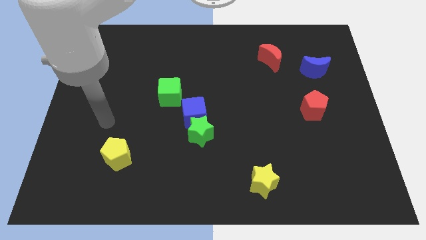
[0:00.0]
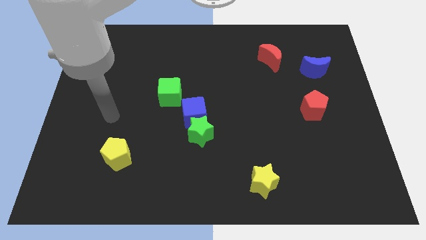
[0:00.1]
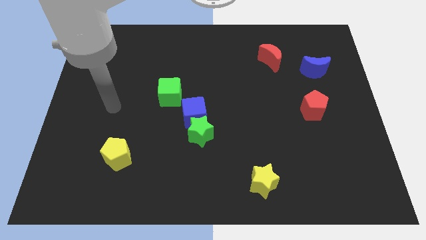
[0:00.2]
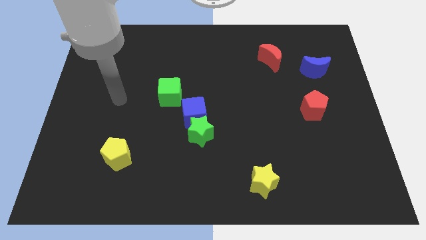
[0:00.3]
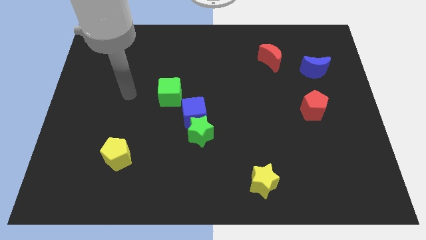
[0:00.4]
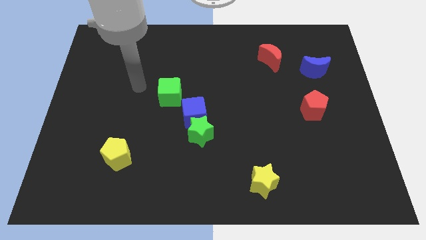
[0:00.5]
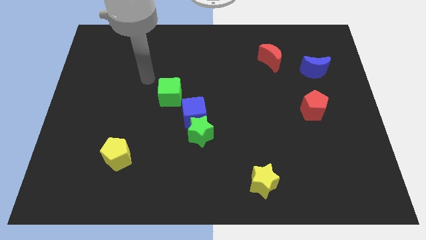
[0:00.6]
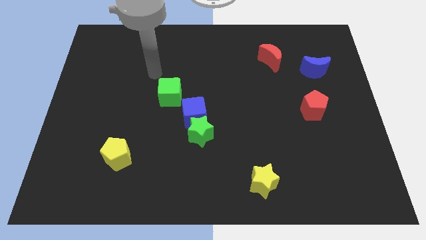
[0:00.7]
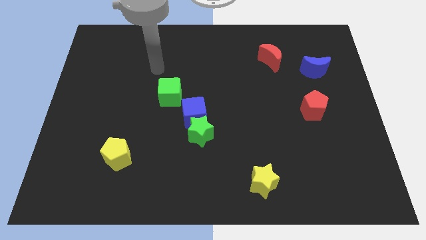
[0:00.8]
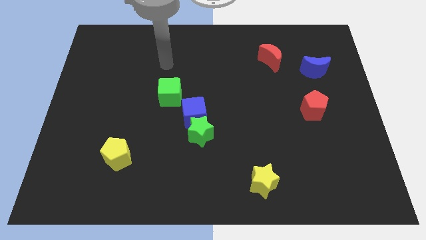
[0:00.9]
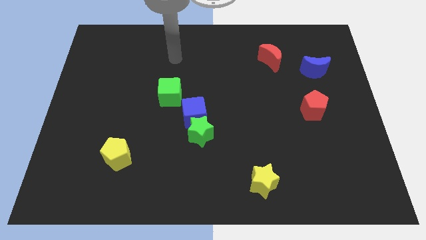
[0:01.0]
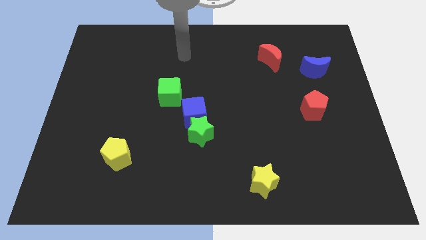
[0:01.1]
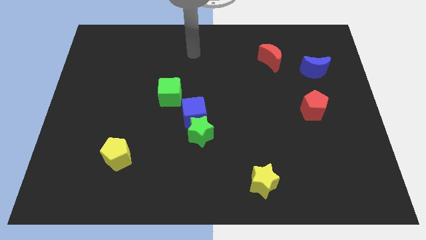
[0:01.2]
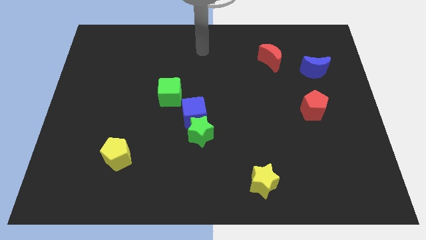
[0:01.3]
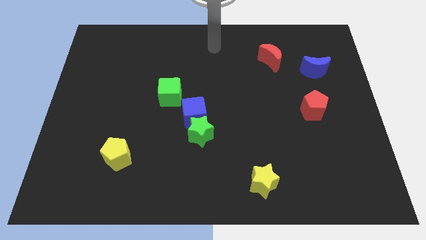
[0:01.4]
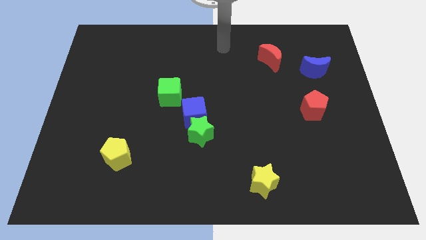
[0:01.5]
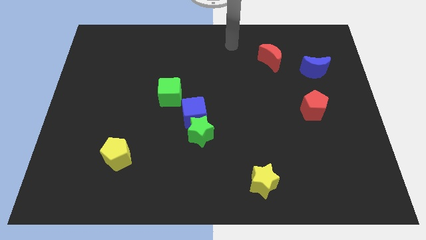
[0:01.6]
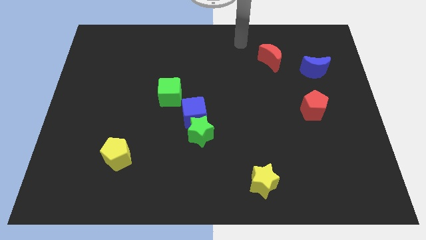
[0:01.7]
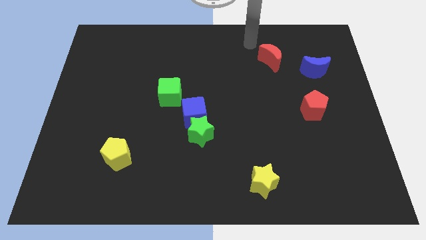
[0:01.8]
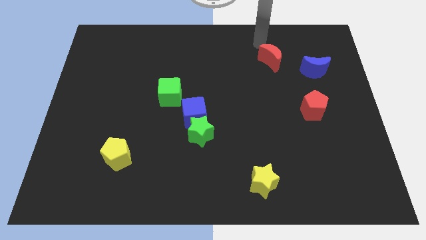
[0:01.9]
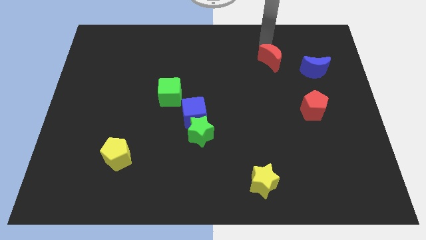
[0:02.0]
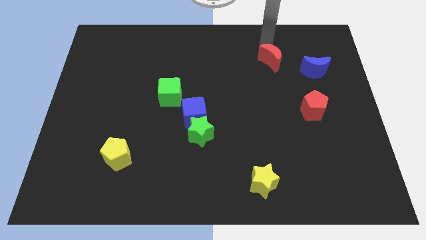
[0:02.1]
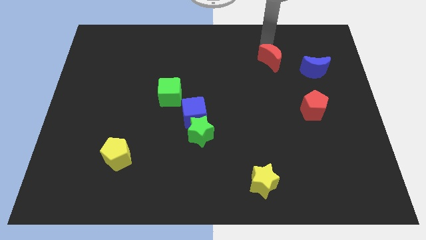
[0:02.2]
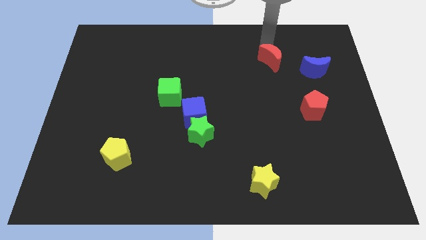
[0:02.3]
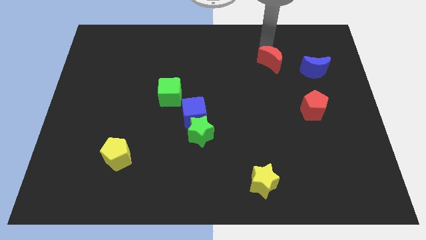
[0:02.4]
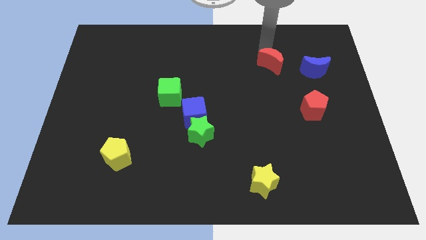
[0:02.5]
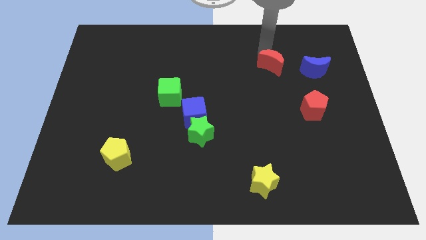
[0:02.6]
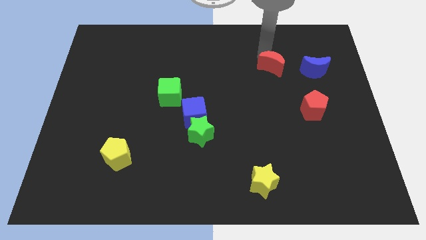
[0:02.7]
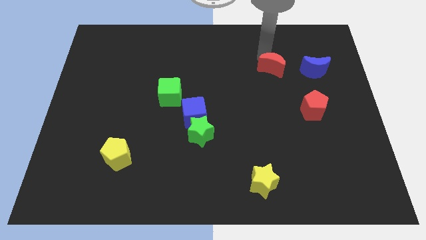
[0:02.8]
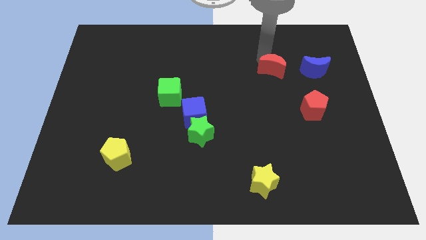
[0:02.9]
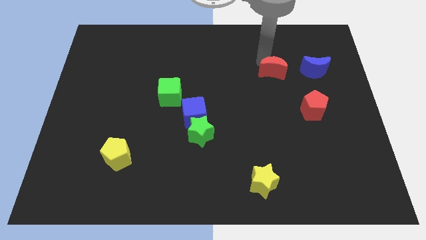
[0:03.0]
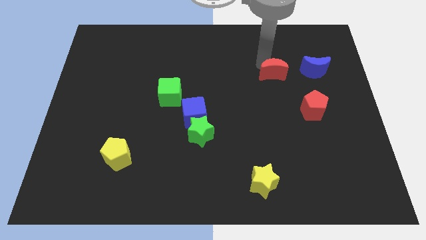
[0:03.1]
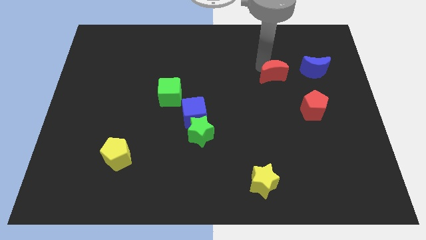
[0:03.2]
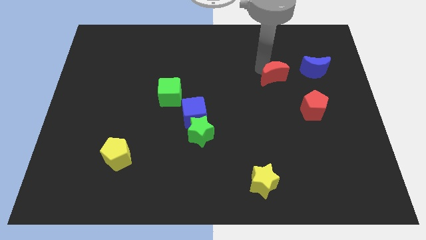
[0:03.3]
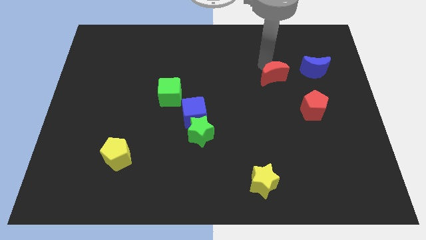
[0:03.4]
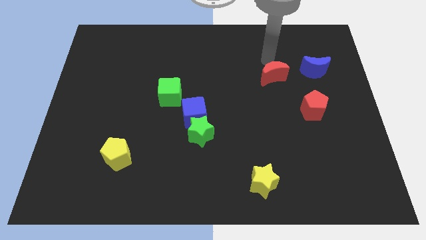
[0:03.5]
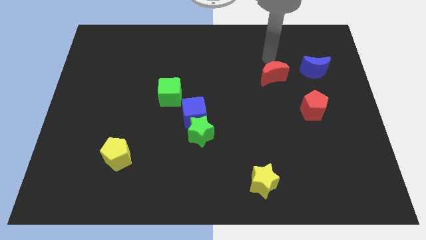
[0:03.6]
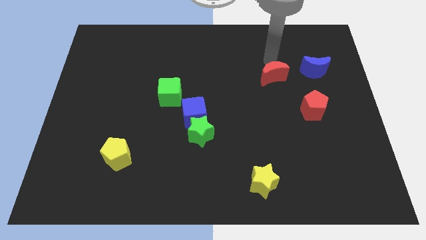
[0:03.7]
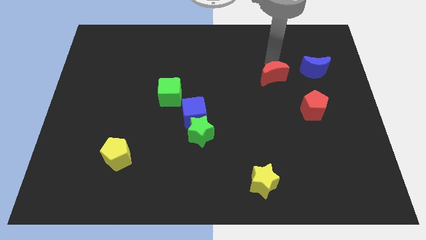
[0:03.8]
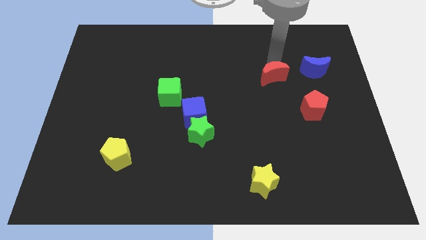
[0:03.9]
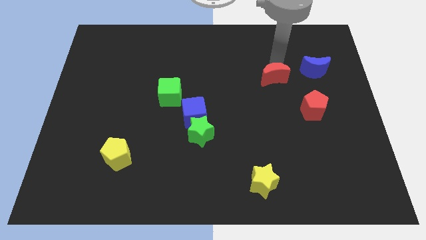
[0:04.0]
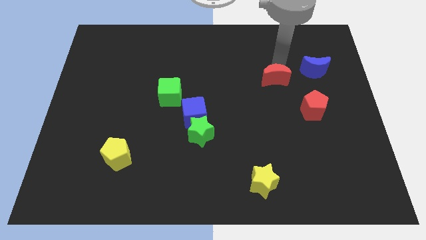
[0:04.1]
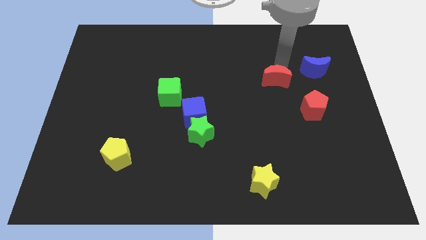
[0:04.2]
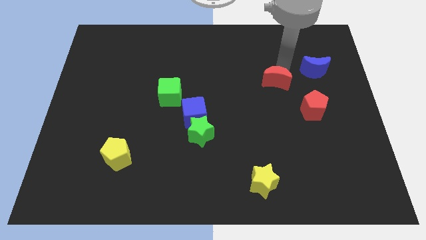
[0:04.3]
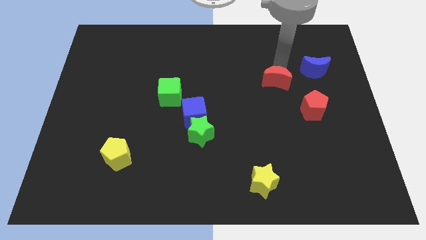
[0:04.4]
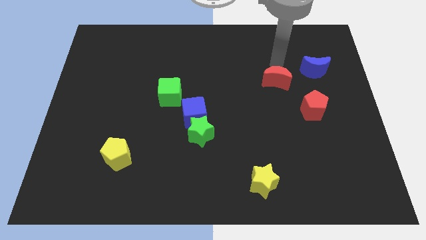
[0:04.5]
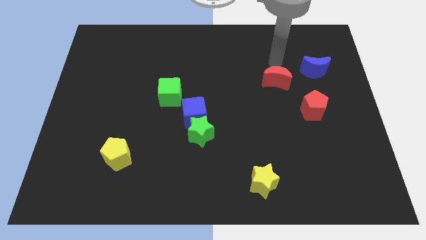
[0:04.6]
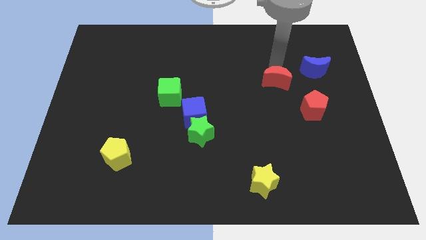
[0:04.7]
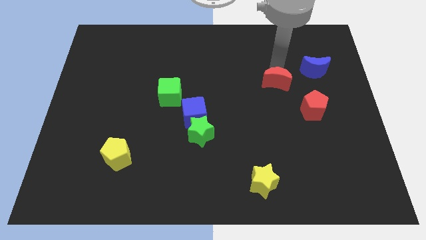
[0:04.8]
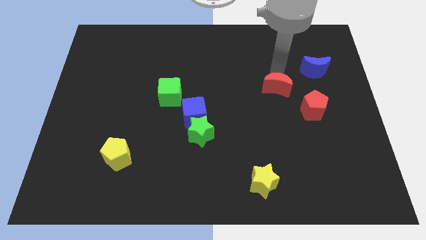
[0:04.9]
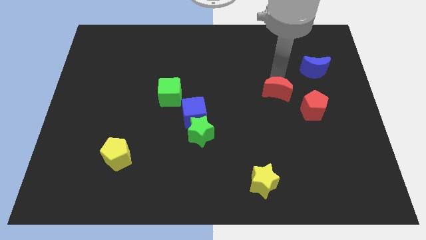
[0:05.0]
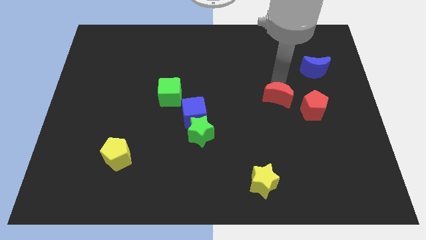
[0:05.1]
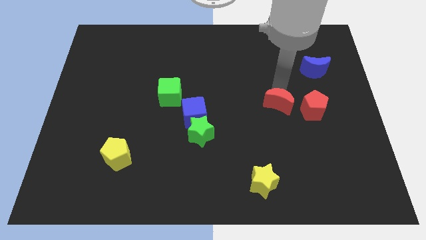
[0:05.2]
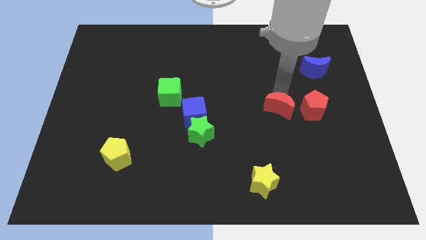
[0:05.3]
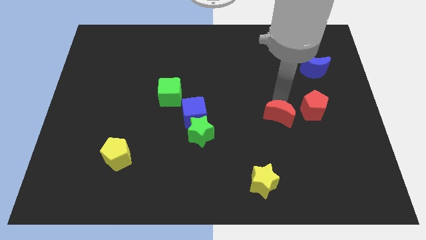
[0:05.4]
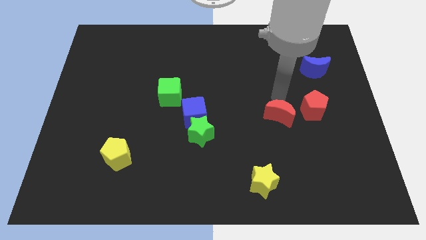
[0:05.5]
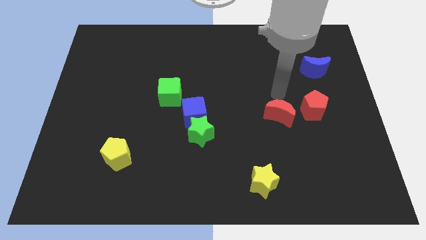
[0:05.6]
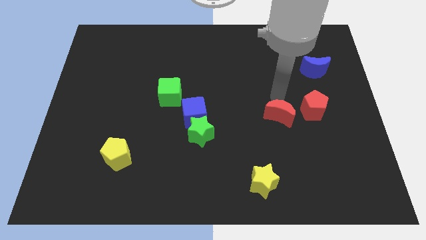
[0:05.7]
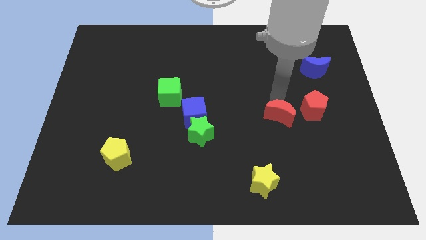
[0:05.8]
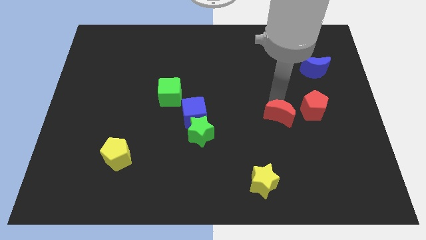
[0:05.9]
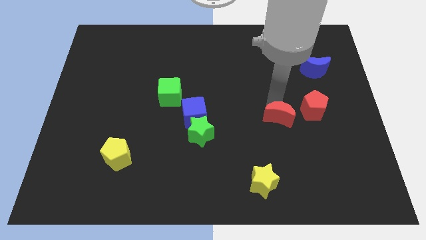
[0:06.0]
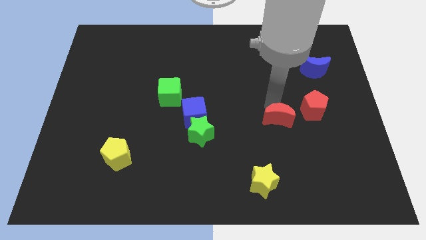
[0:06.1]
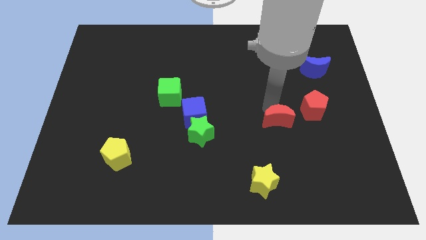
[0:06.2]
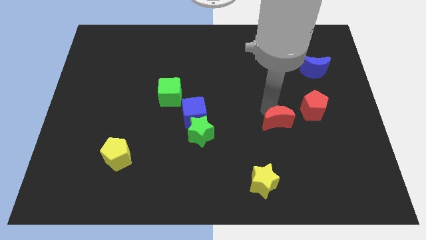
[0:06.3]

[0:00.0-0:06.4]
slide the red moon downwards

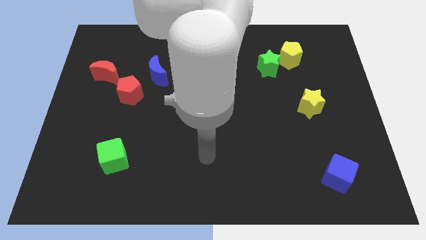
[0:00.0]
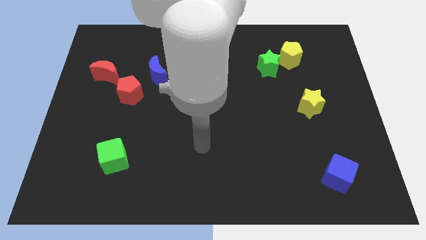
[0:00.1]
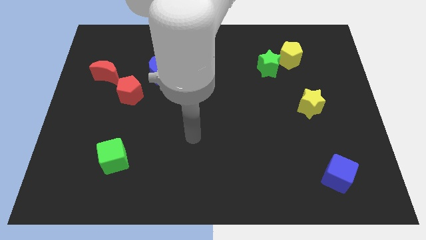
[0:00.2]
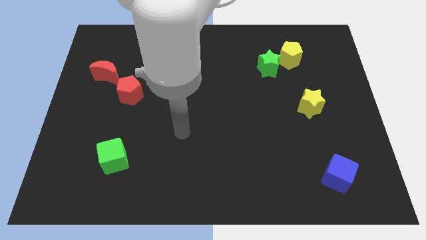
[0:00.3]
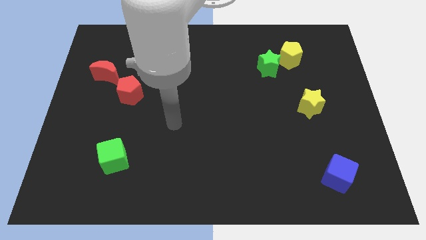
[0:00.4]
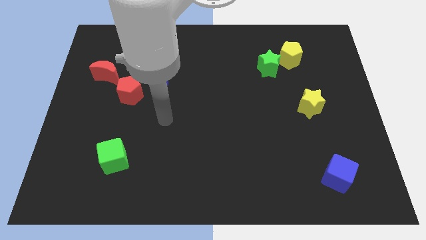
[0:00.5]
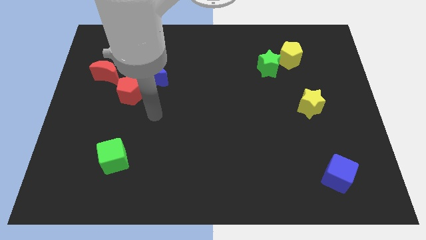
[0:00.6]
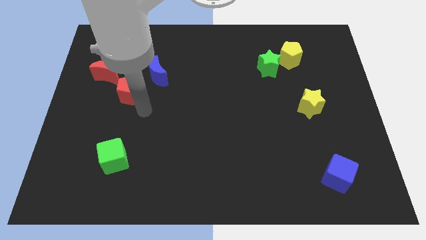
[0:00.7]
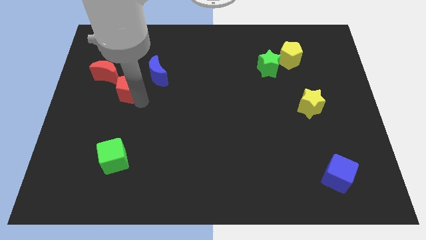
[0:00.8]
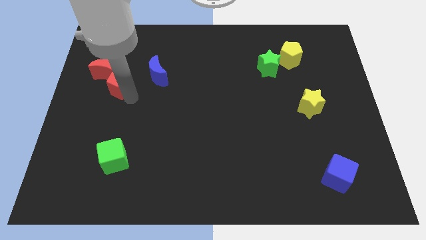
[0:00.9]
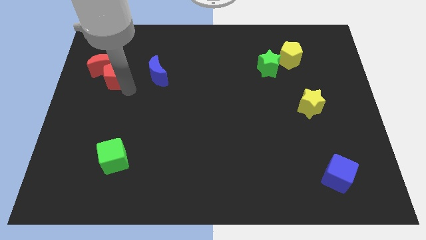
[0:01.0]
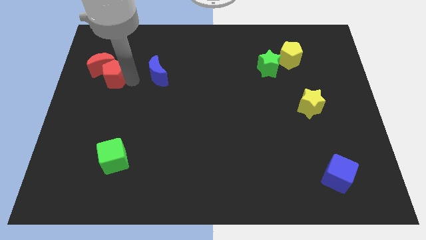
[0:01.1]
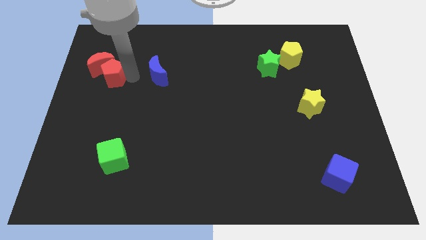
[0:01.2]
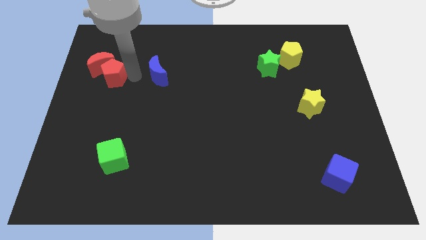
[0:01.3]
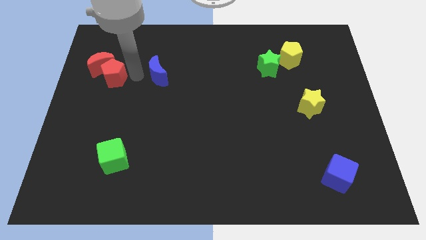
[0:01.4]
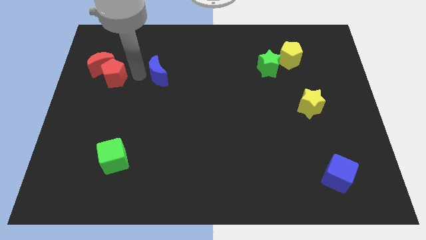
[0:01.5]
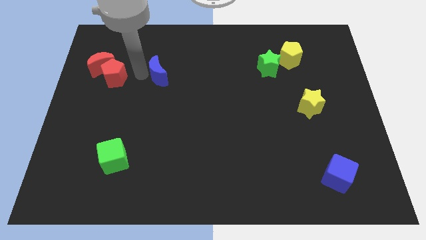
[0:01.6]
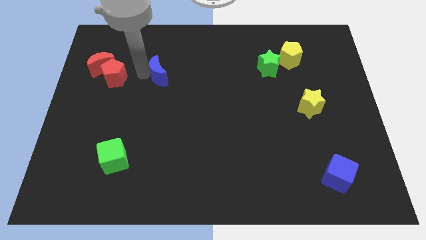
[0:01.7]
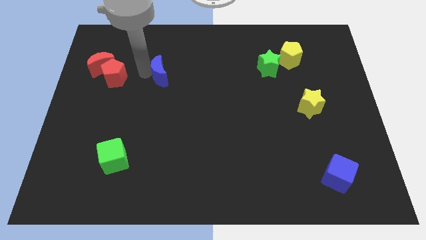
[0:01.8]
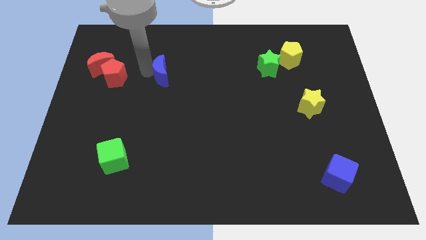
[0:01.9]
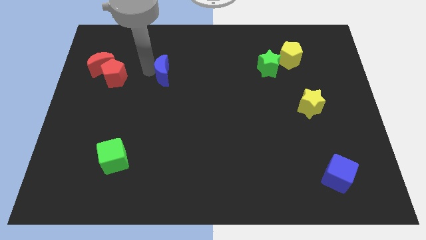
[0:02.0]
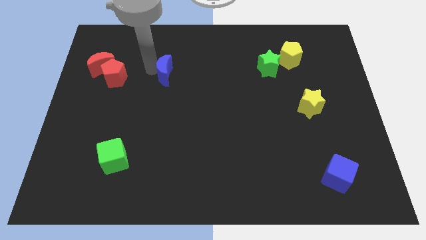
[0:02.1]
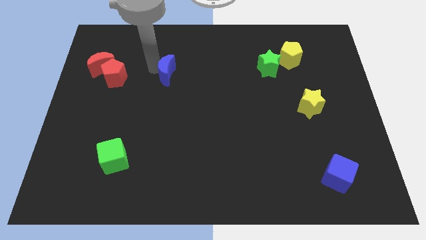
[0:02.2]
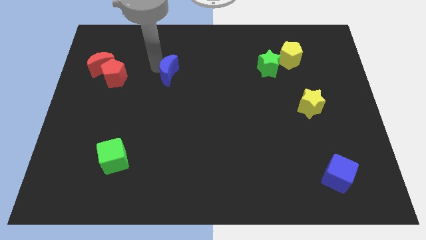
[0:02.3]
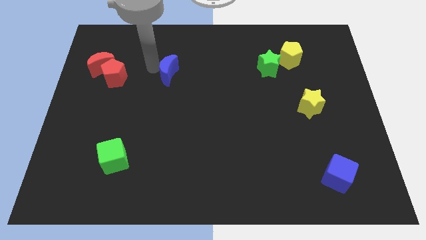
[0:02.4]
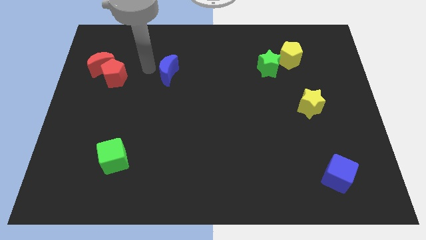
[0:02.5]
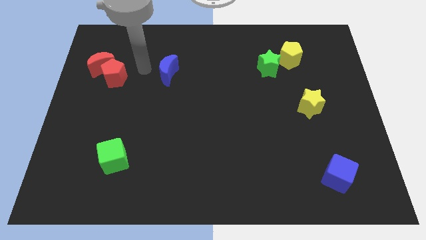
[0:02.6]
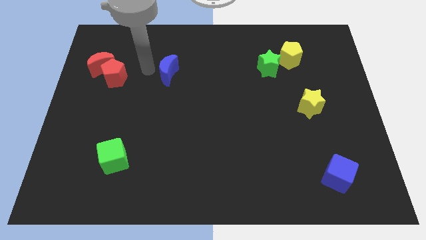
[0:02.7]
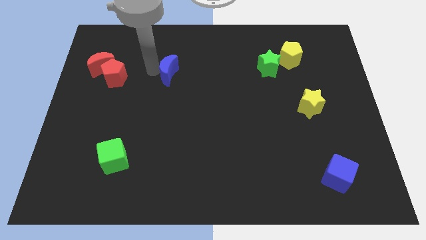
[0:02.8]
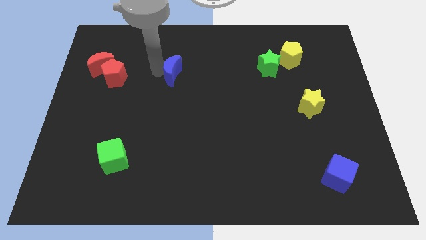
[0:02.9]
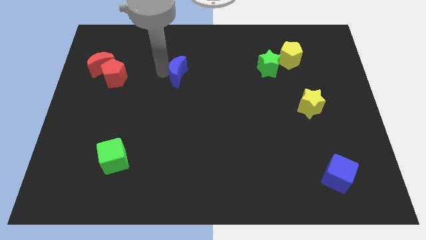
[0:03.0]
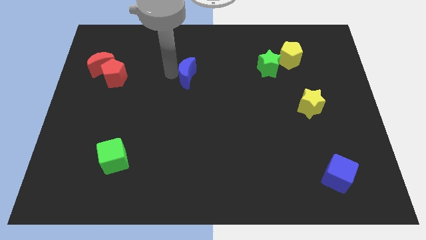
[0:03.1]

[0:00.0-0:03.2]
push the blue moon right a bit
